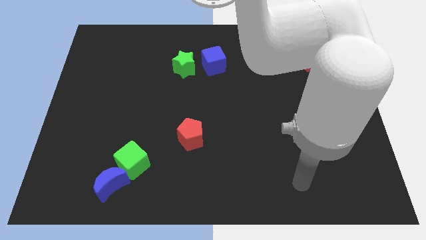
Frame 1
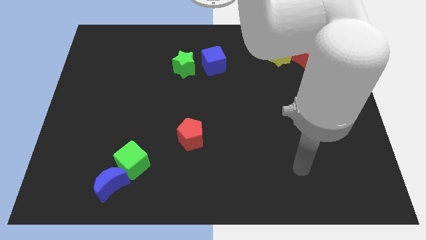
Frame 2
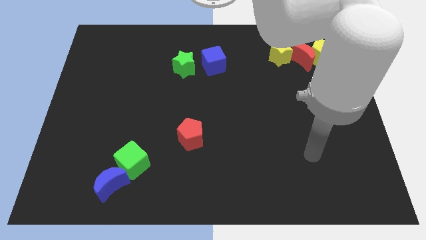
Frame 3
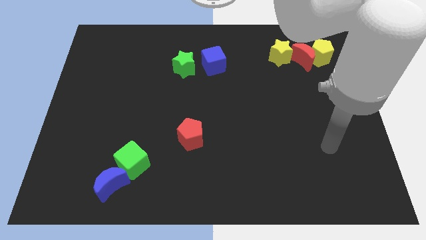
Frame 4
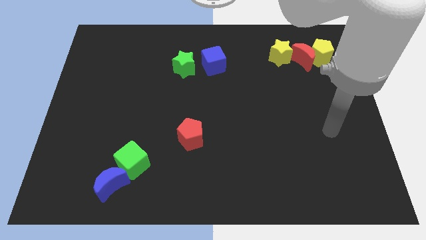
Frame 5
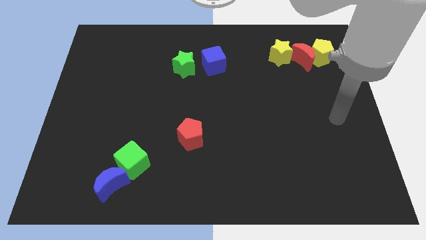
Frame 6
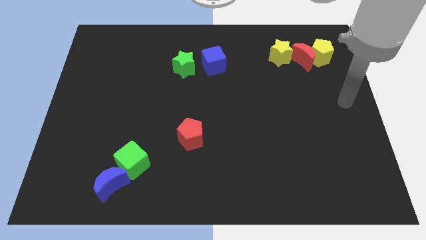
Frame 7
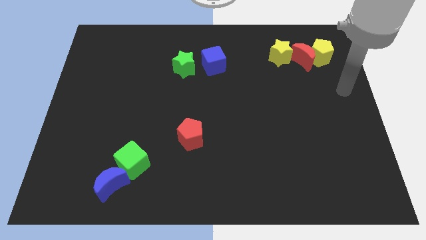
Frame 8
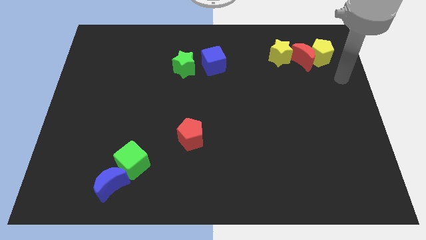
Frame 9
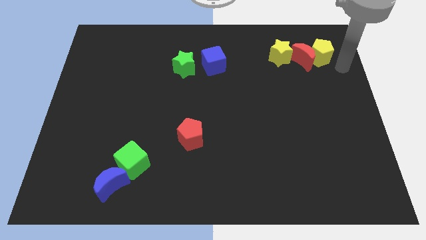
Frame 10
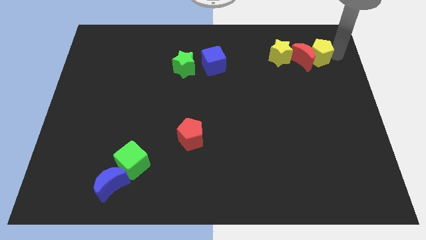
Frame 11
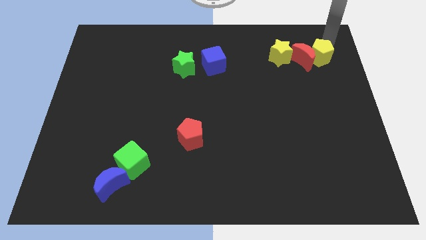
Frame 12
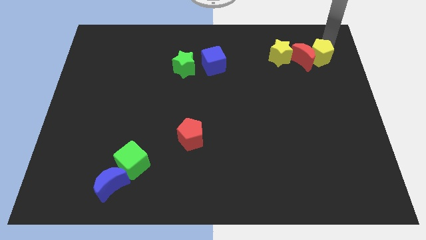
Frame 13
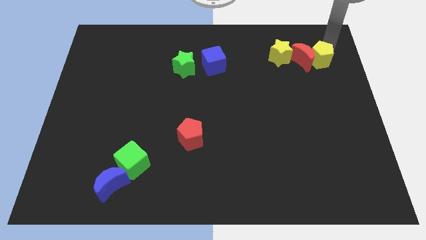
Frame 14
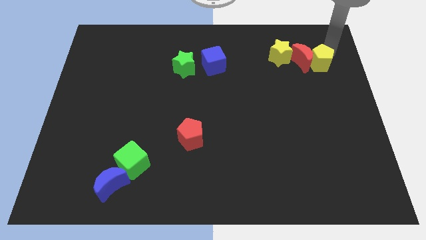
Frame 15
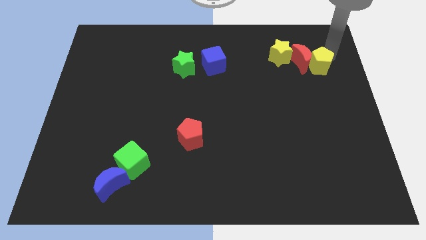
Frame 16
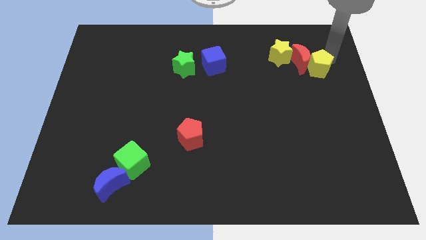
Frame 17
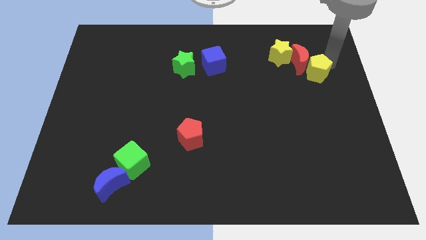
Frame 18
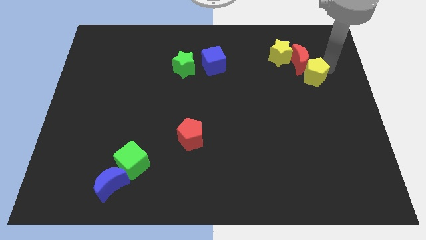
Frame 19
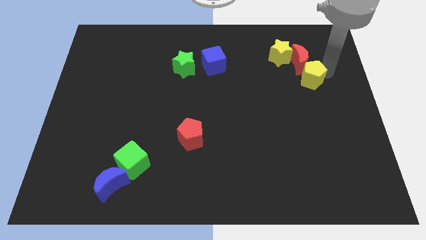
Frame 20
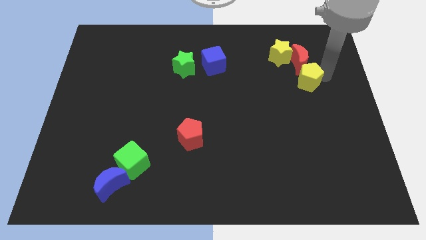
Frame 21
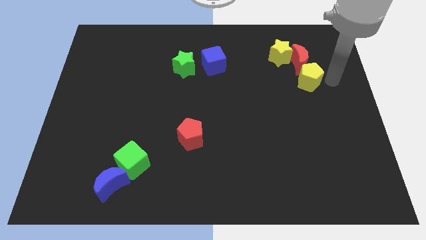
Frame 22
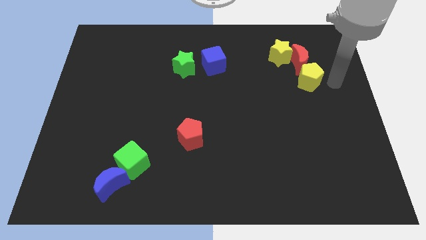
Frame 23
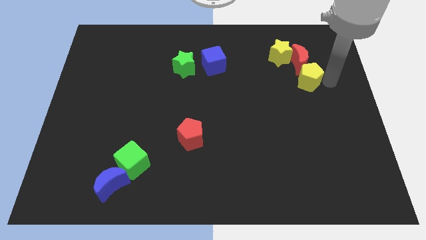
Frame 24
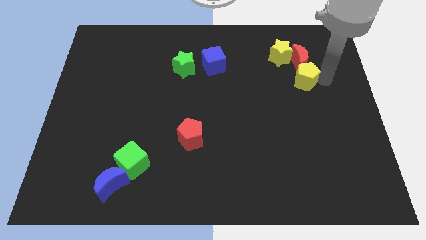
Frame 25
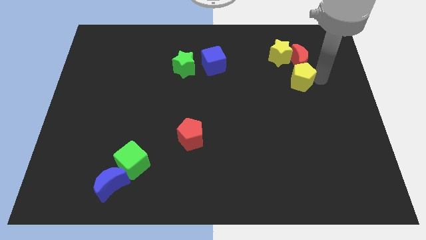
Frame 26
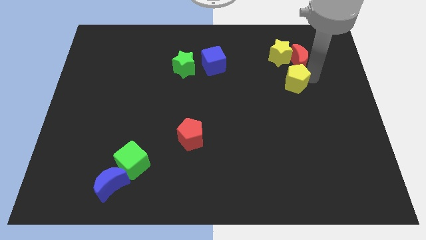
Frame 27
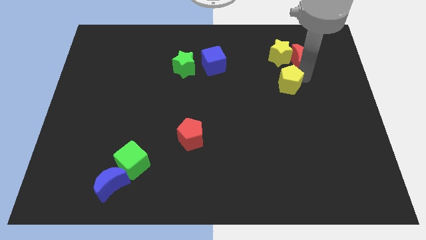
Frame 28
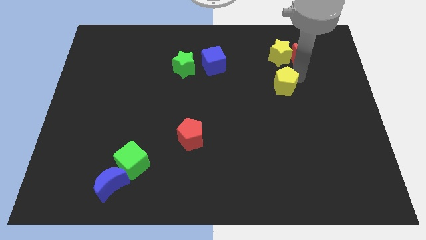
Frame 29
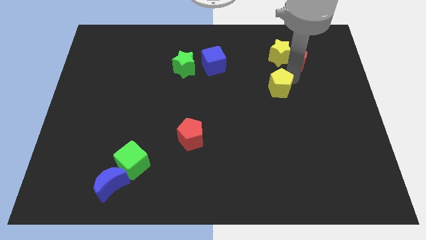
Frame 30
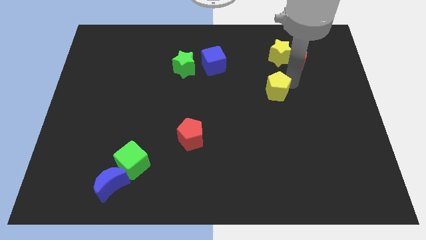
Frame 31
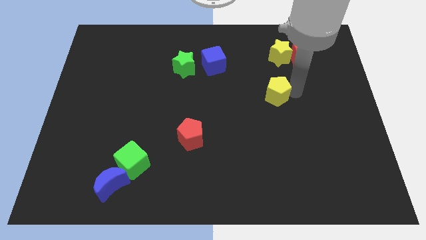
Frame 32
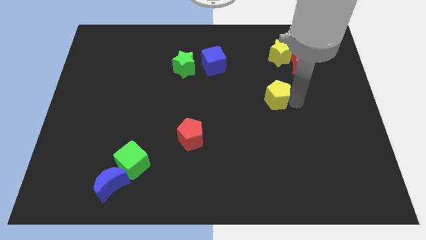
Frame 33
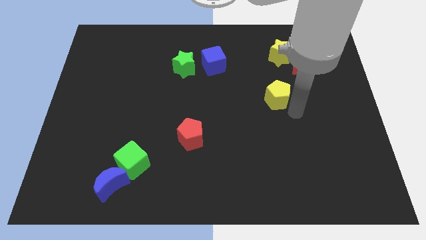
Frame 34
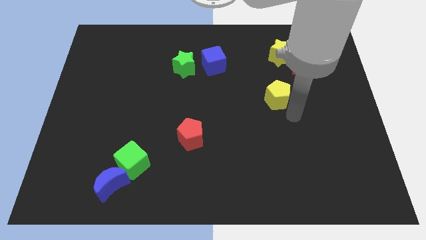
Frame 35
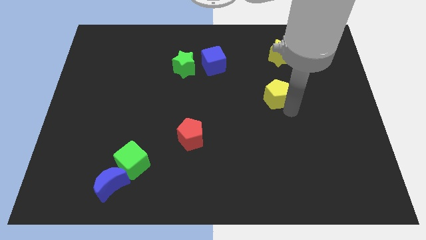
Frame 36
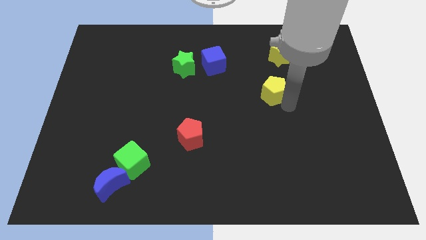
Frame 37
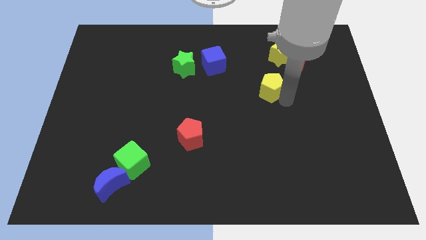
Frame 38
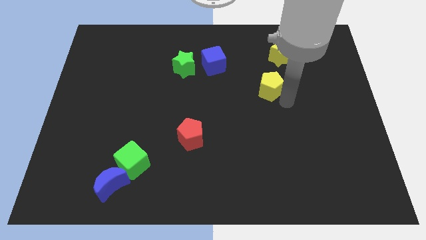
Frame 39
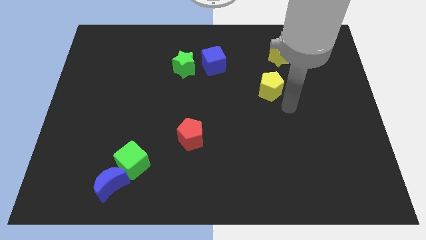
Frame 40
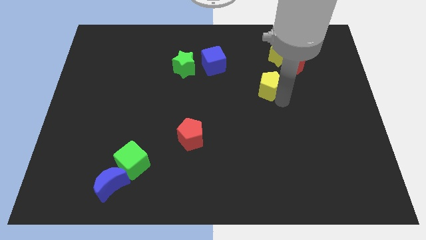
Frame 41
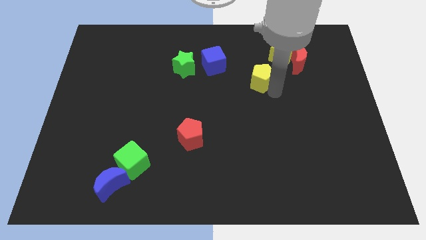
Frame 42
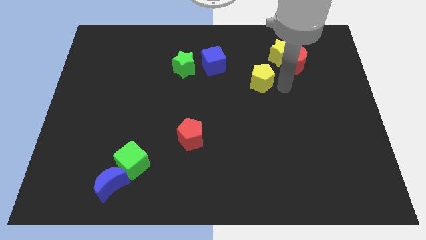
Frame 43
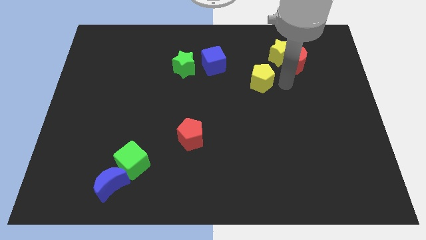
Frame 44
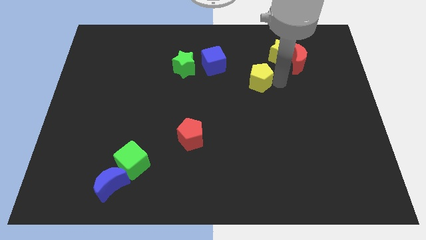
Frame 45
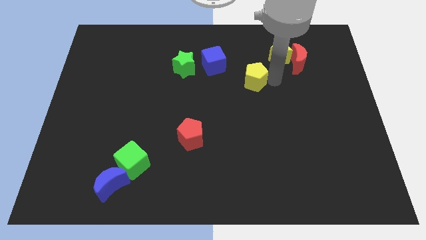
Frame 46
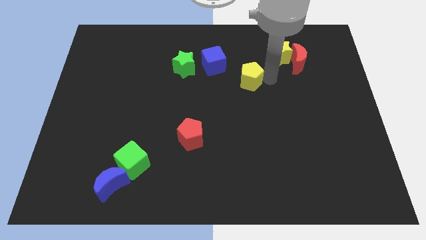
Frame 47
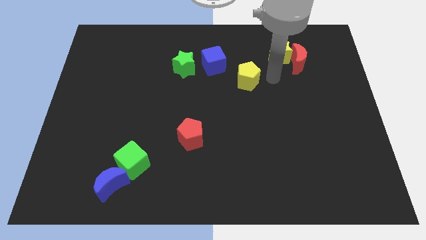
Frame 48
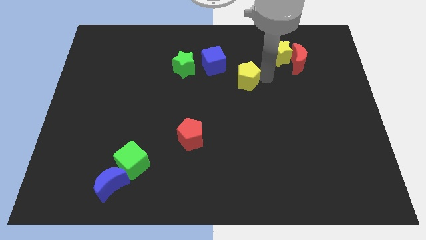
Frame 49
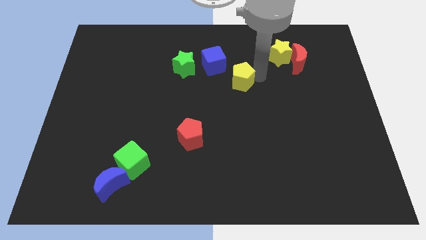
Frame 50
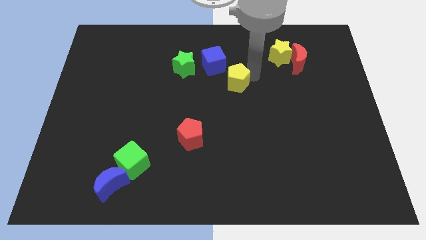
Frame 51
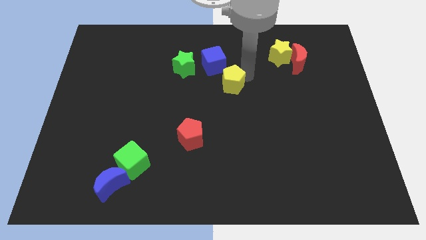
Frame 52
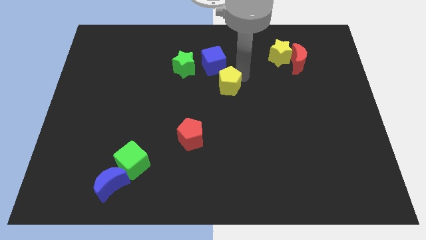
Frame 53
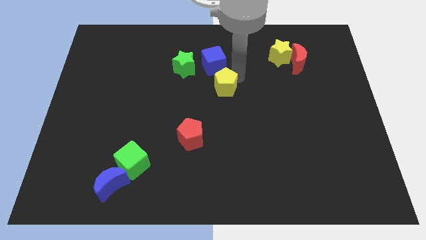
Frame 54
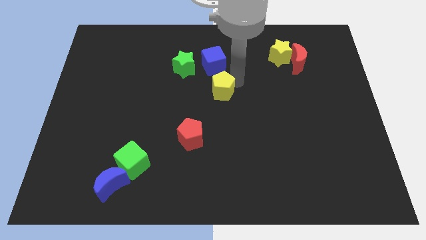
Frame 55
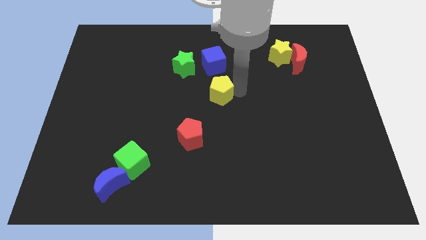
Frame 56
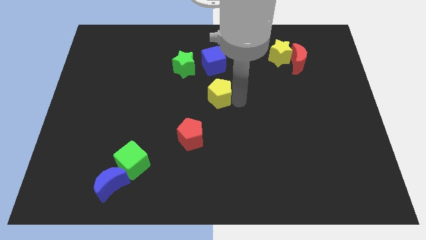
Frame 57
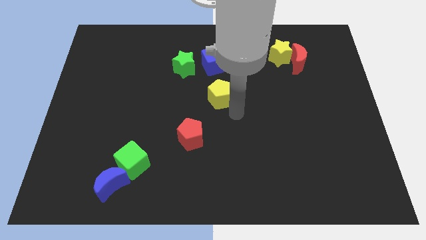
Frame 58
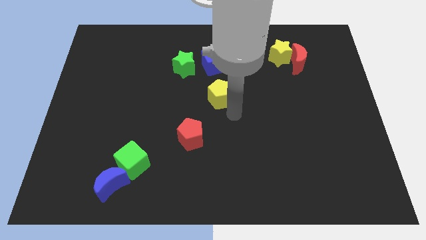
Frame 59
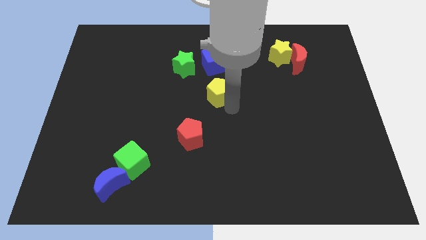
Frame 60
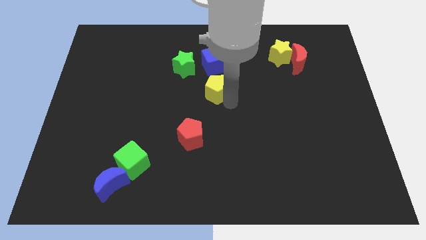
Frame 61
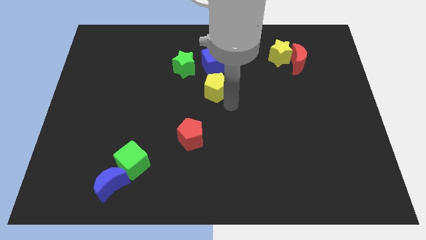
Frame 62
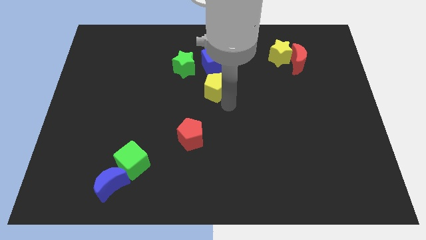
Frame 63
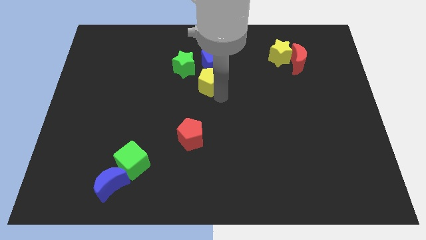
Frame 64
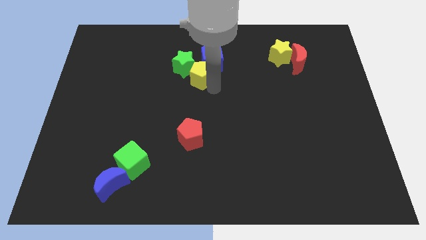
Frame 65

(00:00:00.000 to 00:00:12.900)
put the yellow pentagon to the green star
